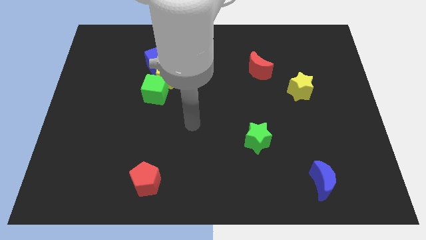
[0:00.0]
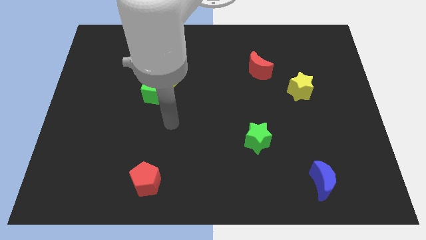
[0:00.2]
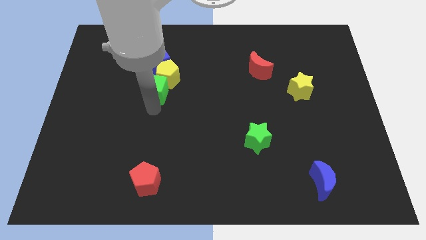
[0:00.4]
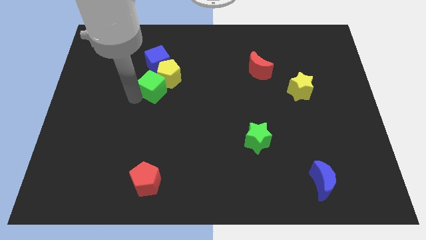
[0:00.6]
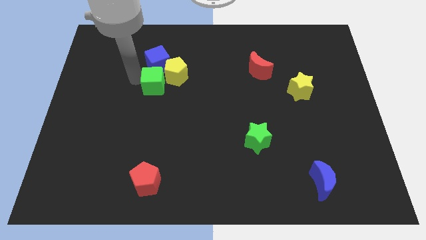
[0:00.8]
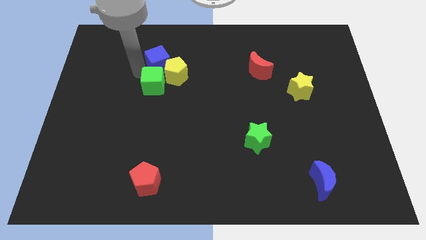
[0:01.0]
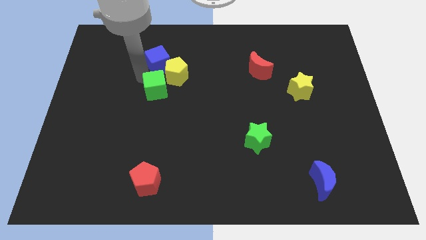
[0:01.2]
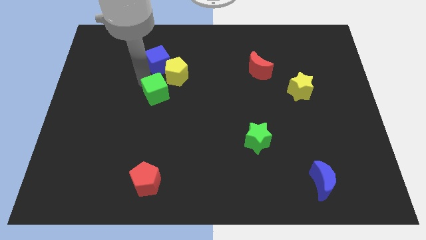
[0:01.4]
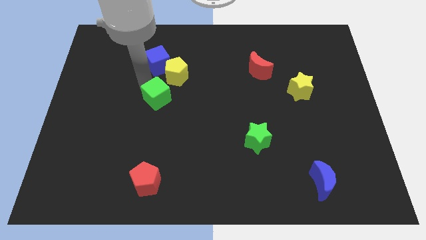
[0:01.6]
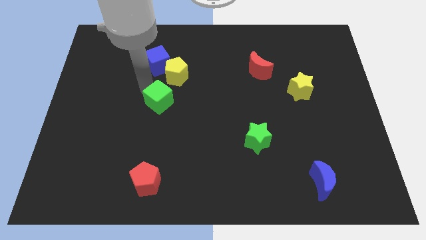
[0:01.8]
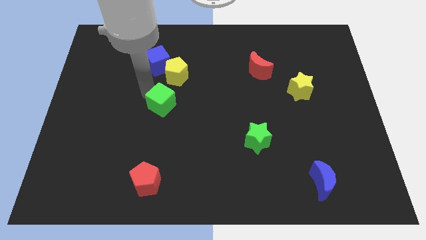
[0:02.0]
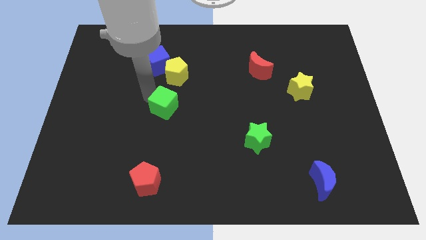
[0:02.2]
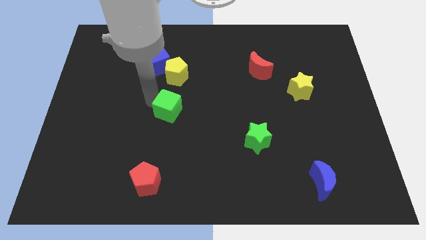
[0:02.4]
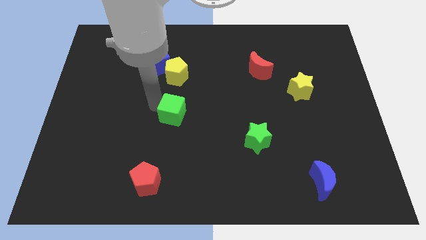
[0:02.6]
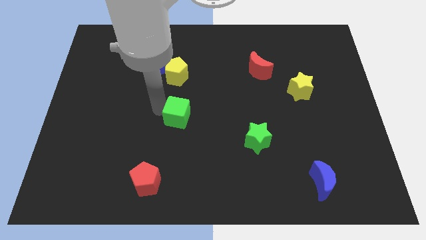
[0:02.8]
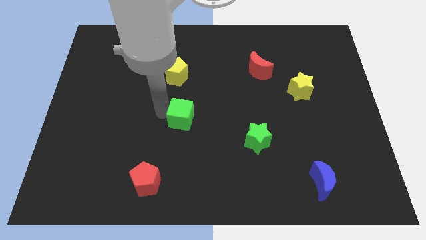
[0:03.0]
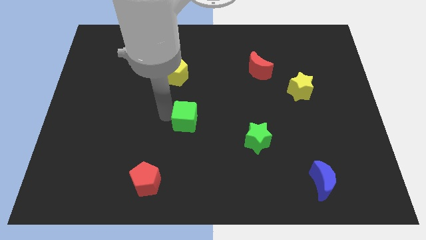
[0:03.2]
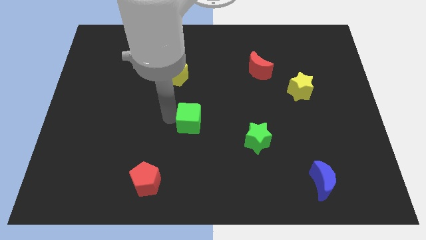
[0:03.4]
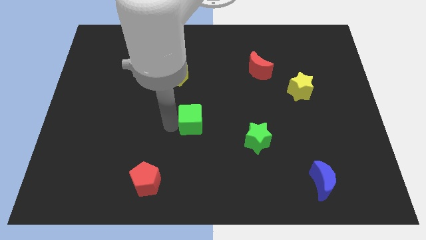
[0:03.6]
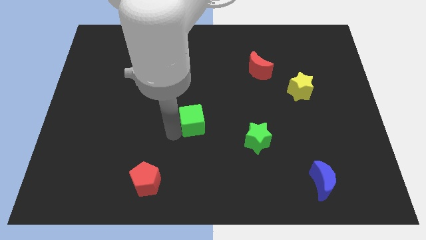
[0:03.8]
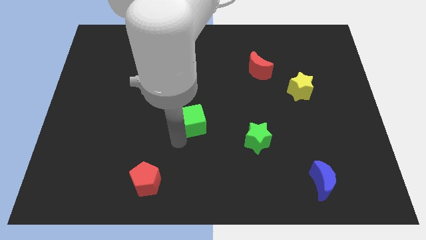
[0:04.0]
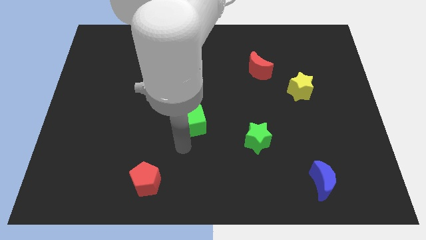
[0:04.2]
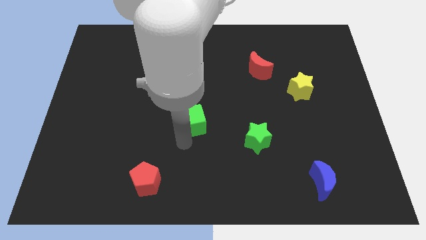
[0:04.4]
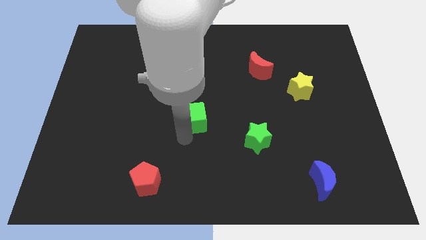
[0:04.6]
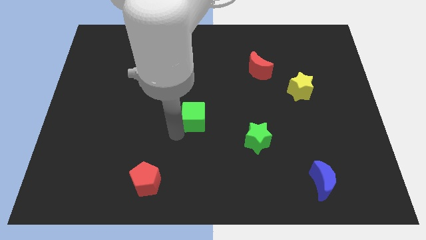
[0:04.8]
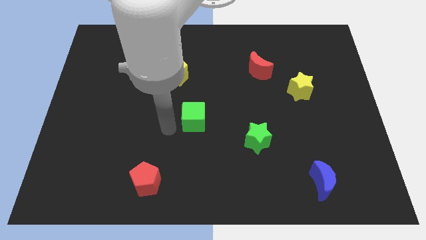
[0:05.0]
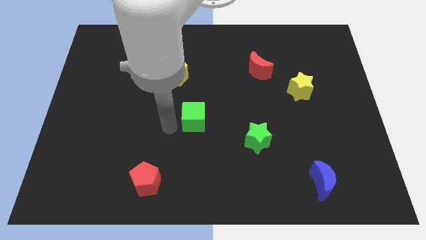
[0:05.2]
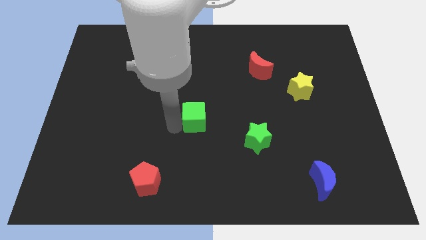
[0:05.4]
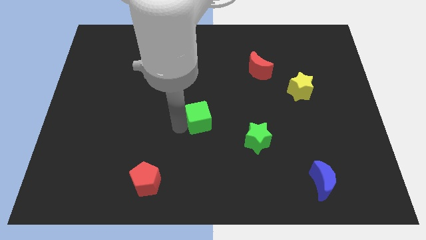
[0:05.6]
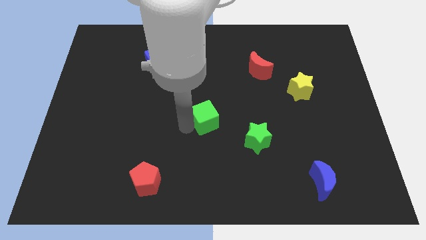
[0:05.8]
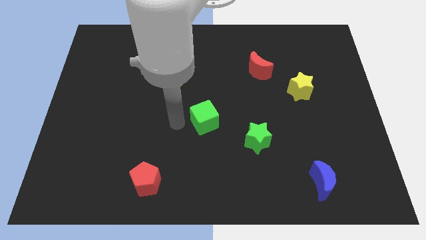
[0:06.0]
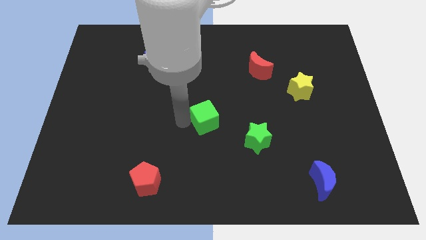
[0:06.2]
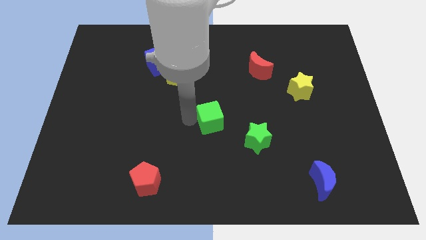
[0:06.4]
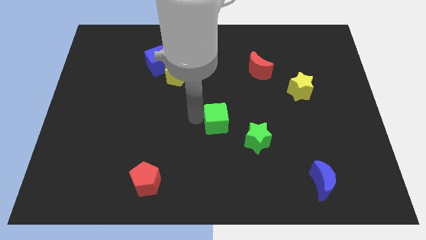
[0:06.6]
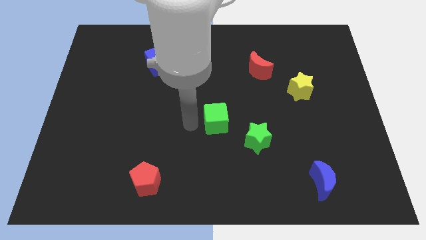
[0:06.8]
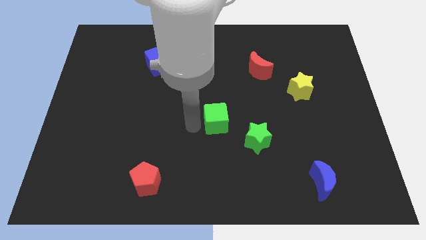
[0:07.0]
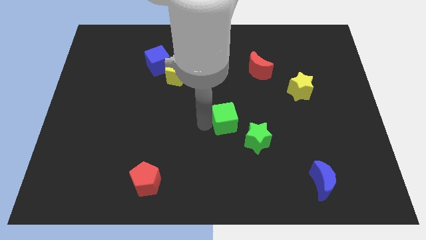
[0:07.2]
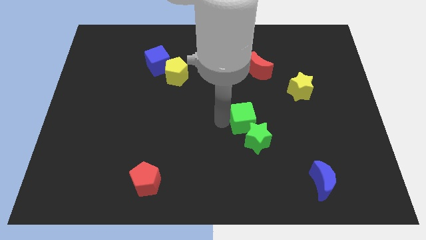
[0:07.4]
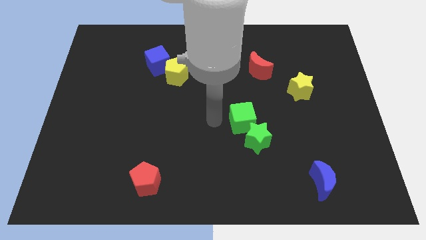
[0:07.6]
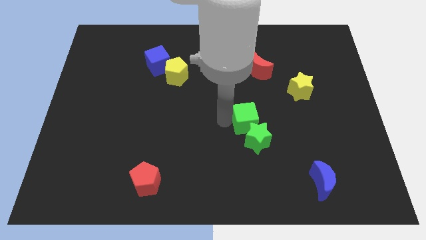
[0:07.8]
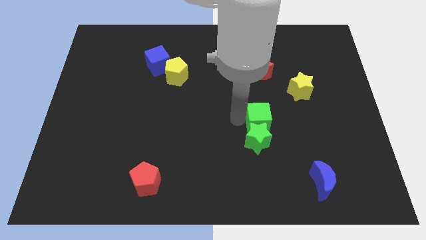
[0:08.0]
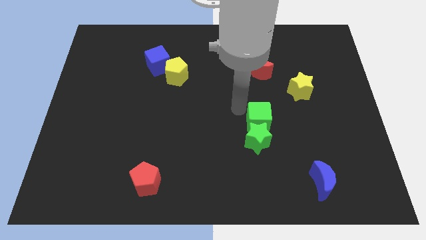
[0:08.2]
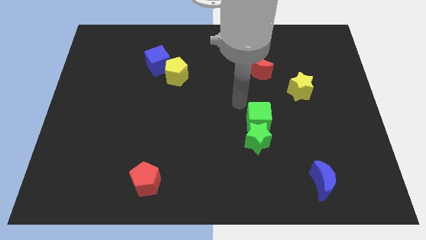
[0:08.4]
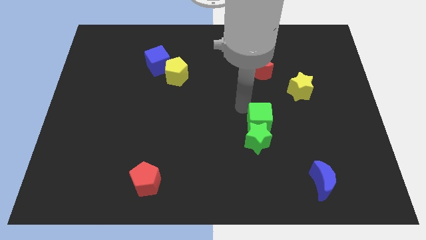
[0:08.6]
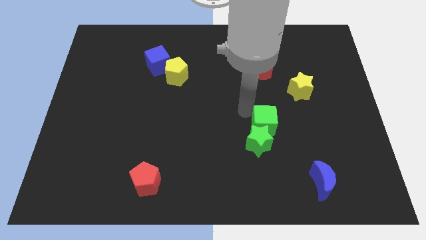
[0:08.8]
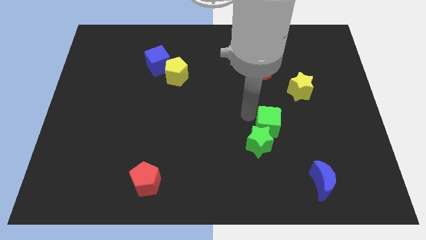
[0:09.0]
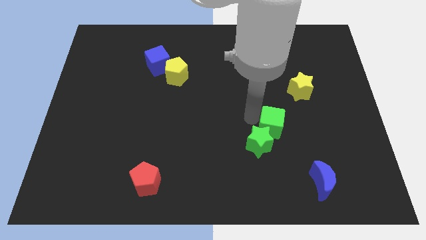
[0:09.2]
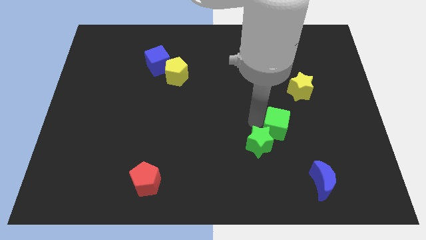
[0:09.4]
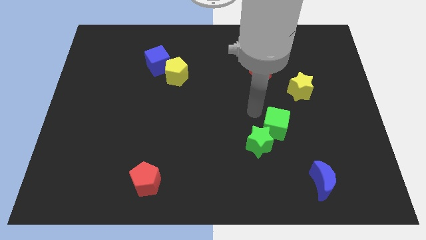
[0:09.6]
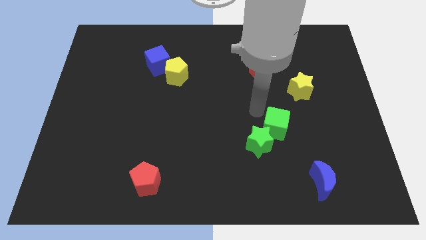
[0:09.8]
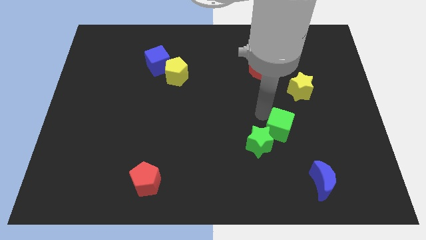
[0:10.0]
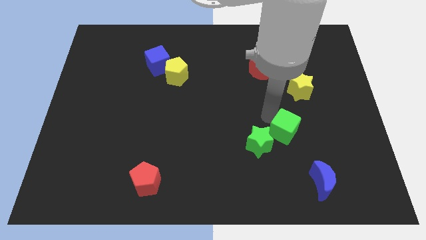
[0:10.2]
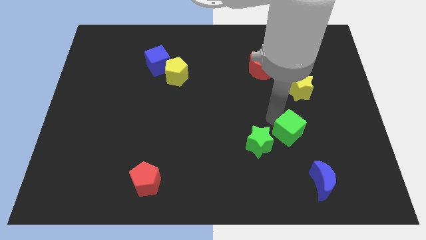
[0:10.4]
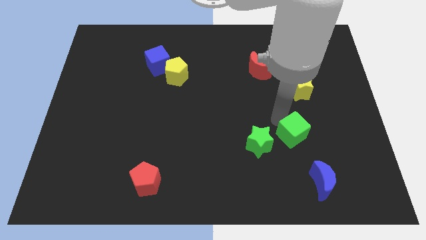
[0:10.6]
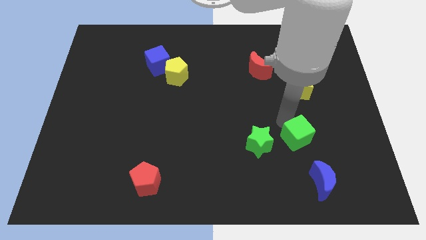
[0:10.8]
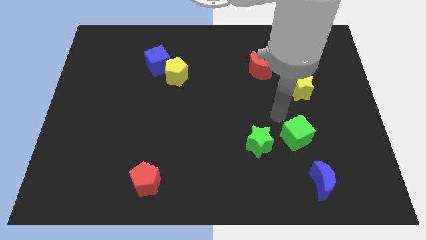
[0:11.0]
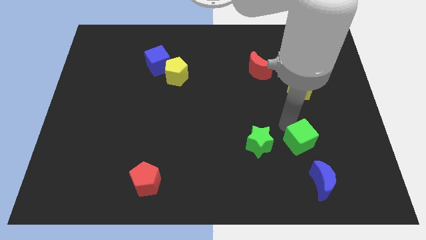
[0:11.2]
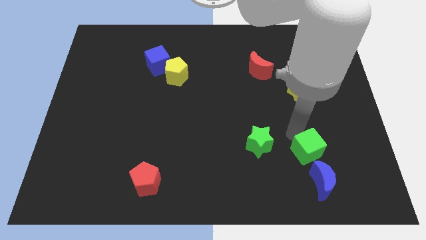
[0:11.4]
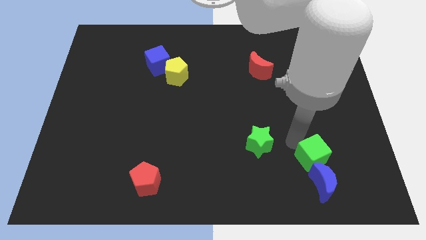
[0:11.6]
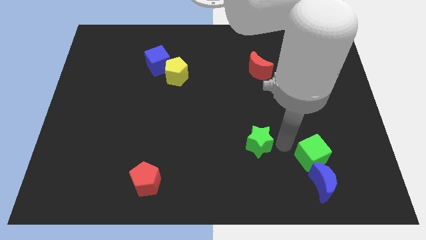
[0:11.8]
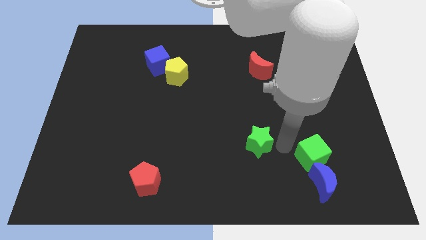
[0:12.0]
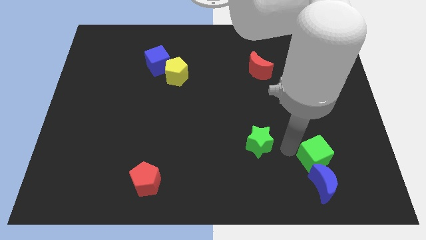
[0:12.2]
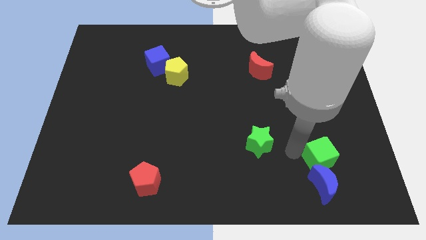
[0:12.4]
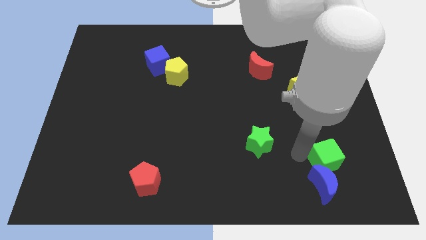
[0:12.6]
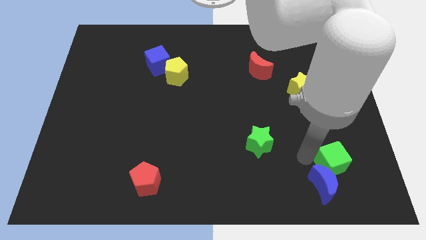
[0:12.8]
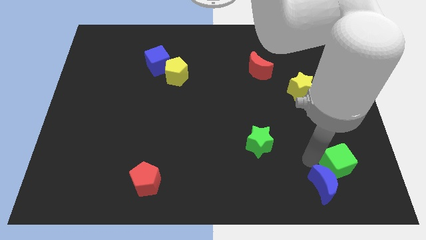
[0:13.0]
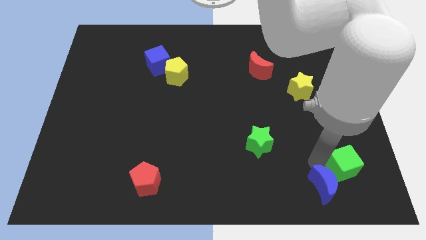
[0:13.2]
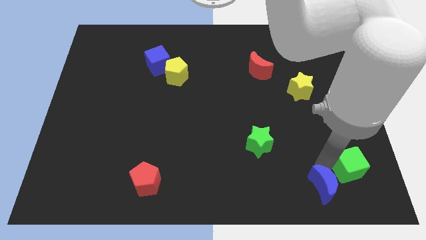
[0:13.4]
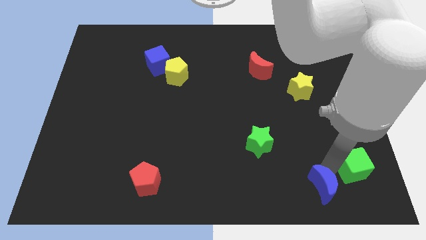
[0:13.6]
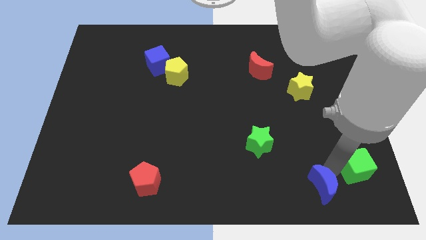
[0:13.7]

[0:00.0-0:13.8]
slide the green cube to the bottom right of the board

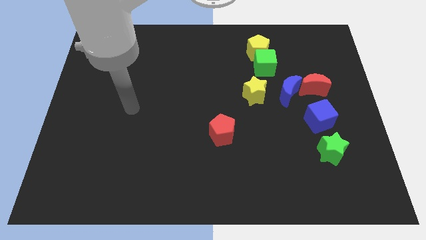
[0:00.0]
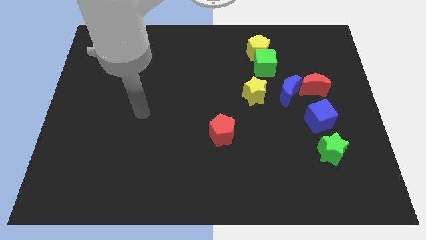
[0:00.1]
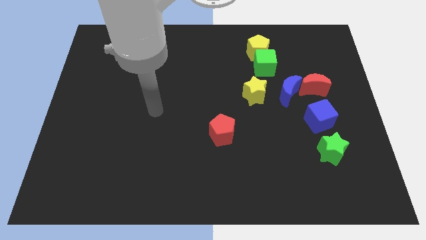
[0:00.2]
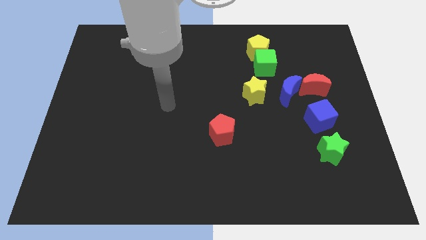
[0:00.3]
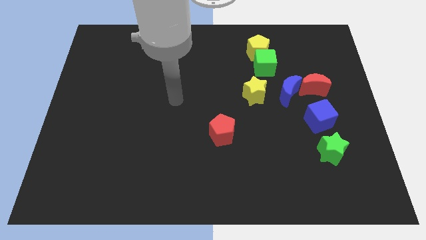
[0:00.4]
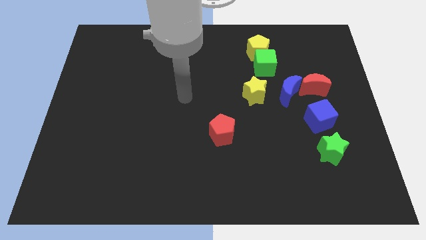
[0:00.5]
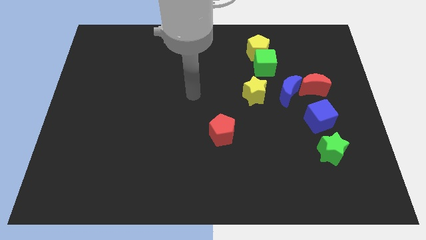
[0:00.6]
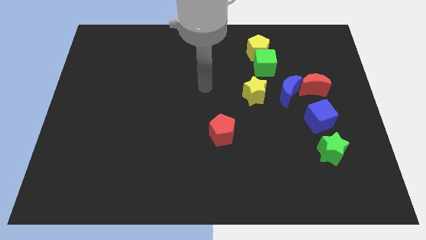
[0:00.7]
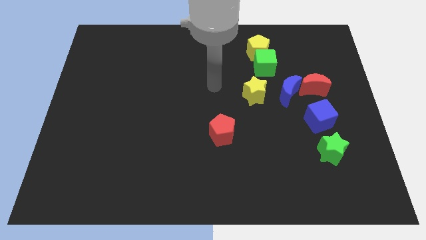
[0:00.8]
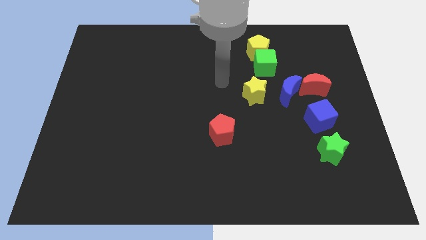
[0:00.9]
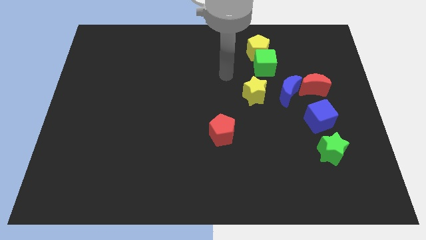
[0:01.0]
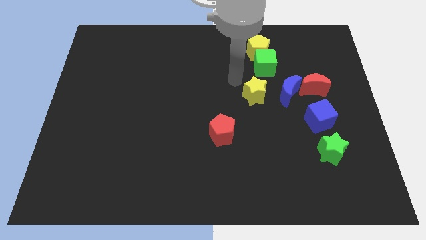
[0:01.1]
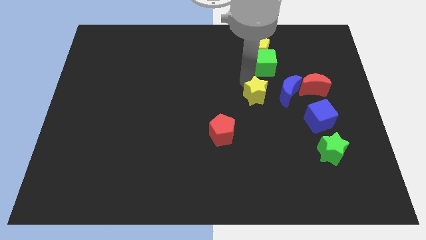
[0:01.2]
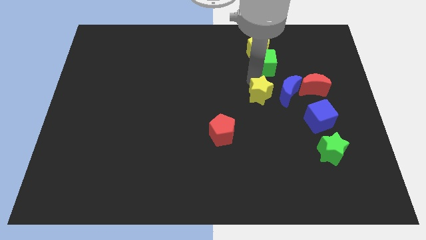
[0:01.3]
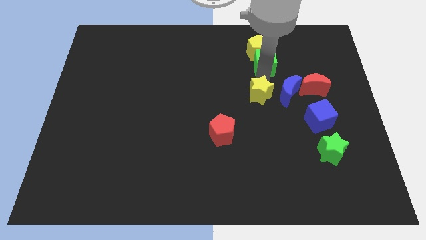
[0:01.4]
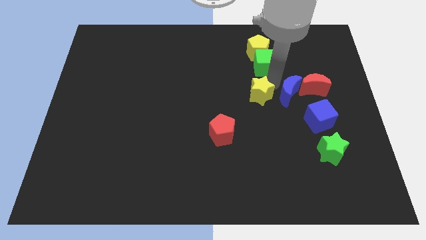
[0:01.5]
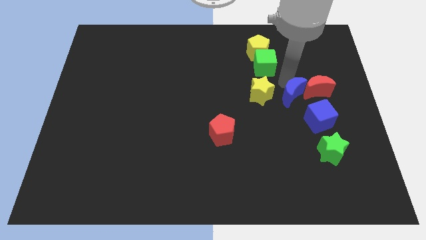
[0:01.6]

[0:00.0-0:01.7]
push the red moon to the right side
